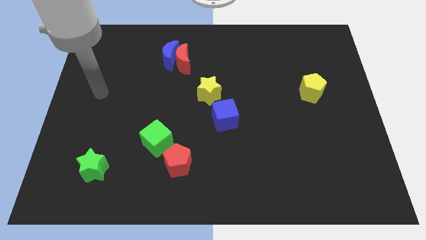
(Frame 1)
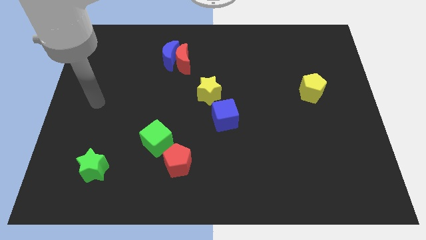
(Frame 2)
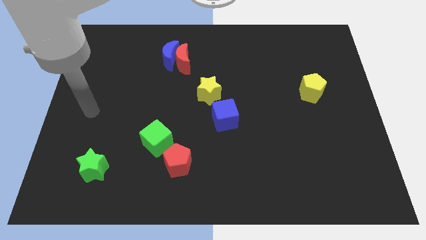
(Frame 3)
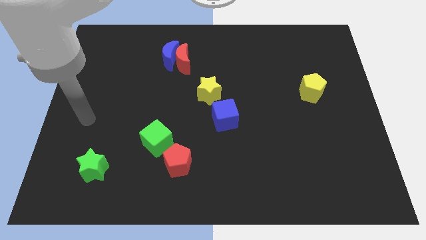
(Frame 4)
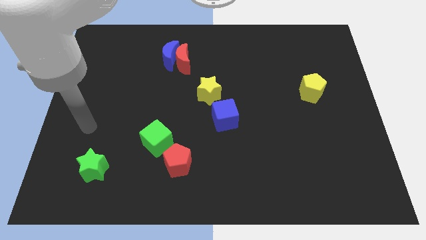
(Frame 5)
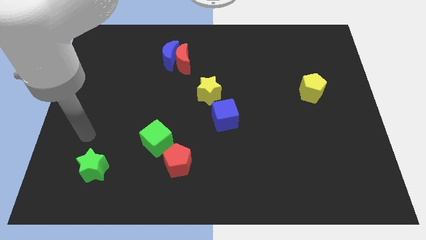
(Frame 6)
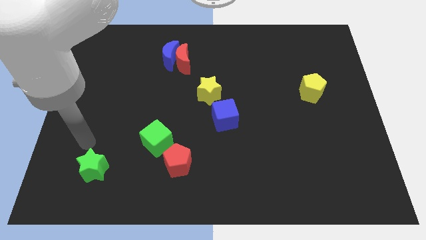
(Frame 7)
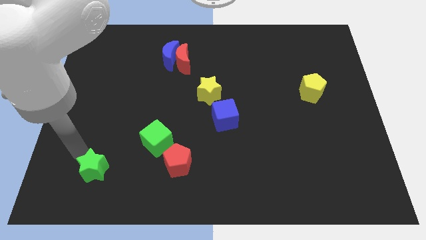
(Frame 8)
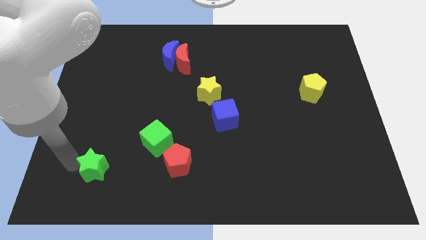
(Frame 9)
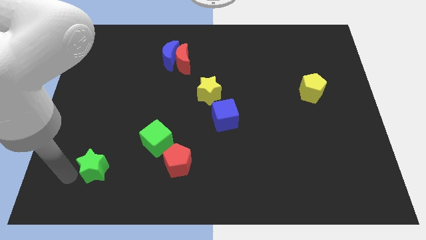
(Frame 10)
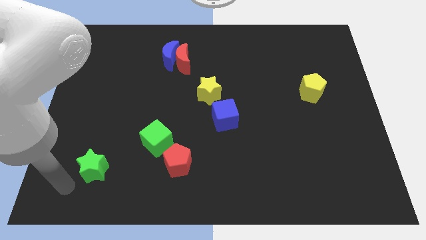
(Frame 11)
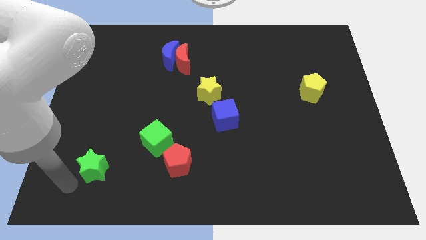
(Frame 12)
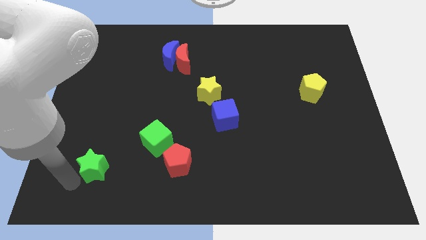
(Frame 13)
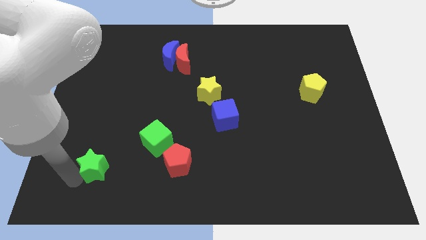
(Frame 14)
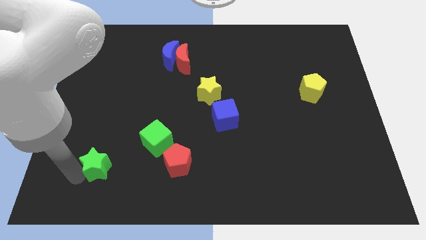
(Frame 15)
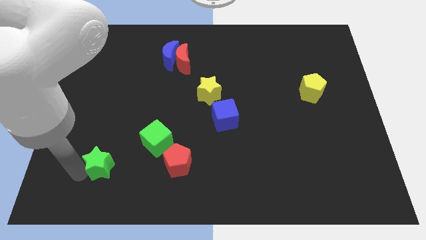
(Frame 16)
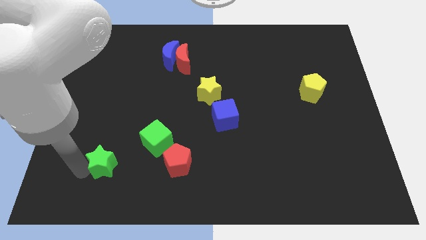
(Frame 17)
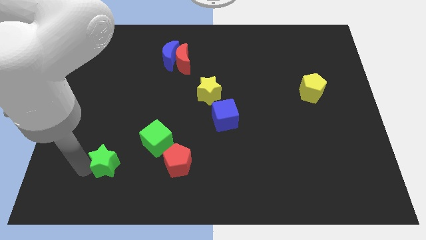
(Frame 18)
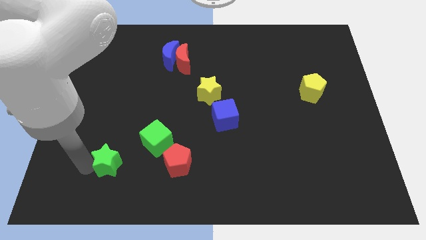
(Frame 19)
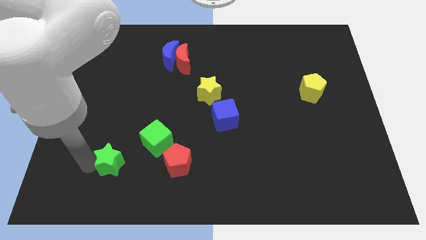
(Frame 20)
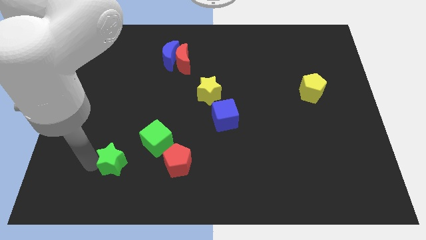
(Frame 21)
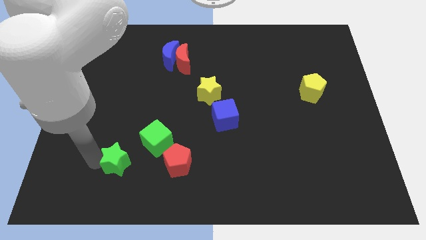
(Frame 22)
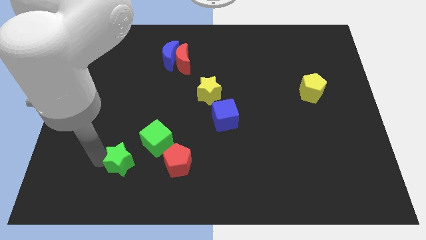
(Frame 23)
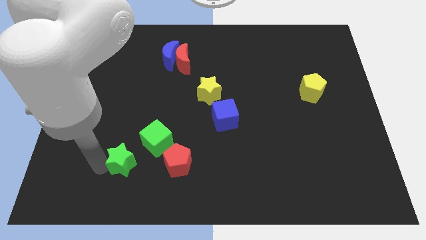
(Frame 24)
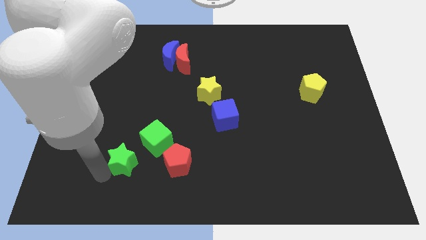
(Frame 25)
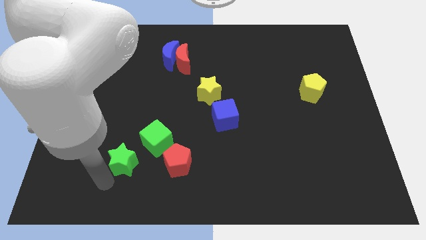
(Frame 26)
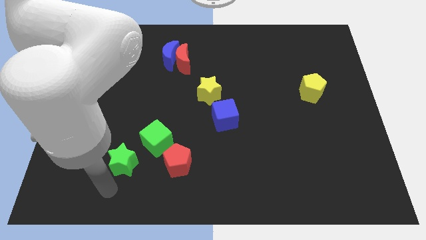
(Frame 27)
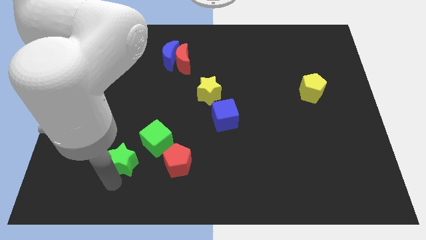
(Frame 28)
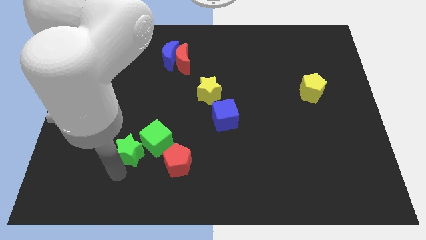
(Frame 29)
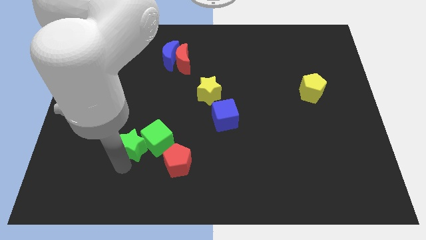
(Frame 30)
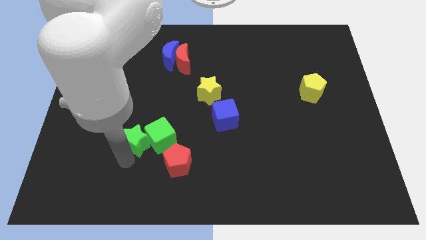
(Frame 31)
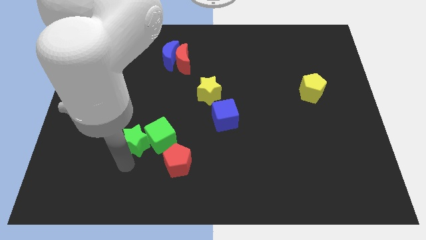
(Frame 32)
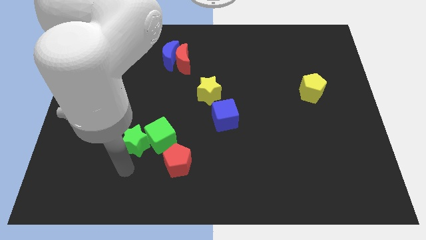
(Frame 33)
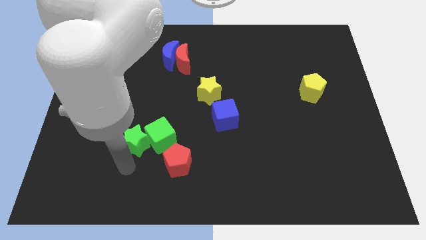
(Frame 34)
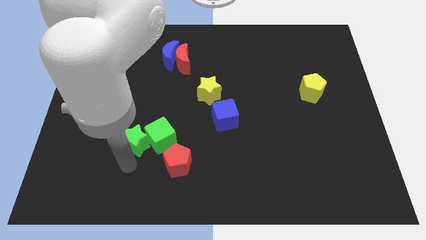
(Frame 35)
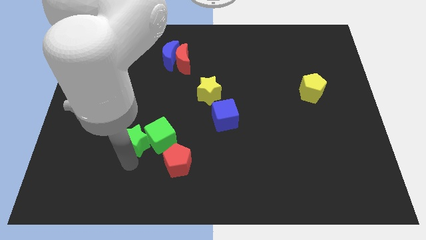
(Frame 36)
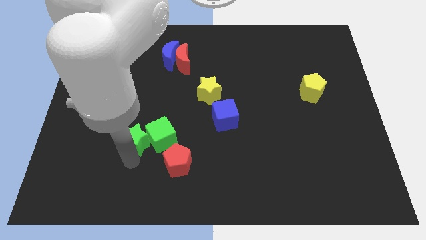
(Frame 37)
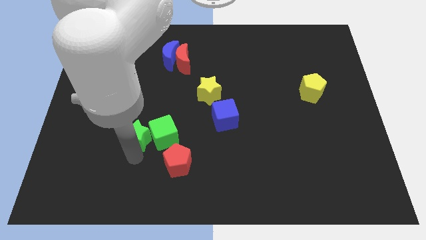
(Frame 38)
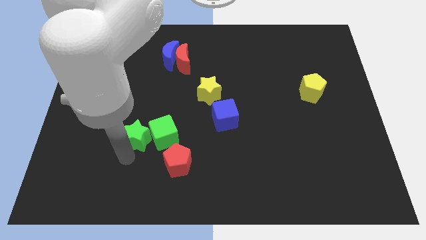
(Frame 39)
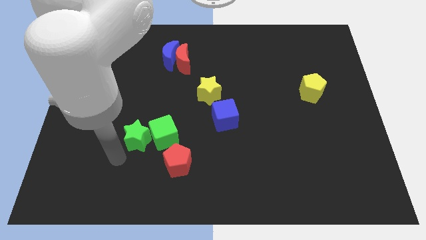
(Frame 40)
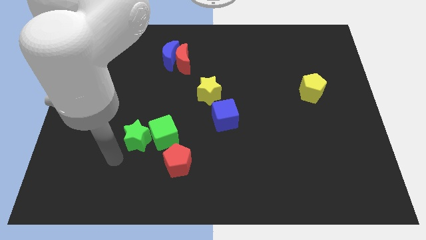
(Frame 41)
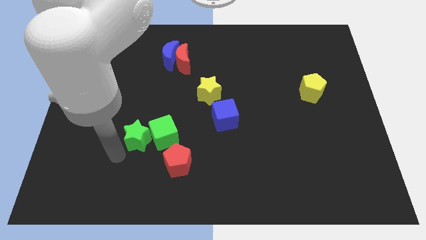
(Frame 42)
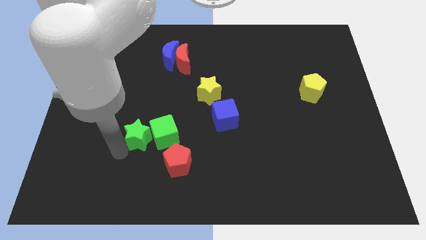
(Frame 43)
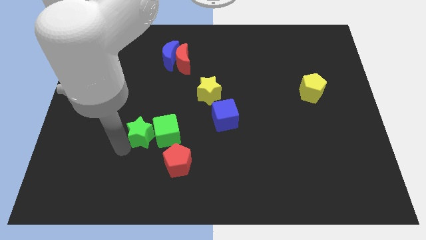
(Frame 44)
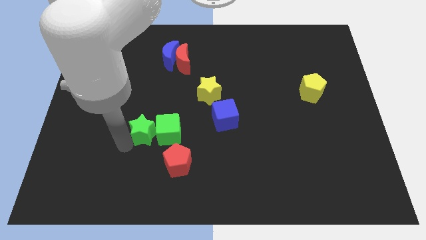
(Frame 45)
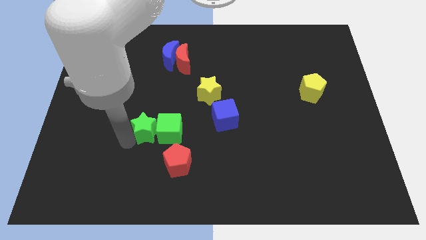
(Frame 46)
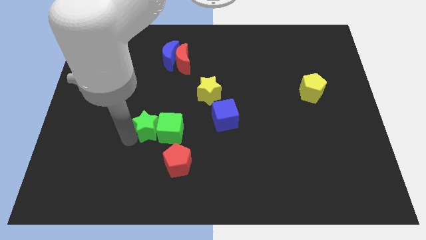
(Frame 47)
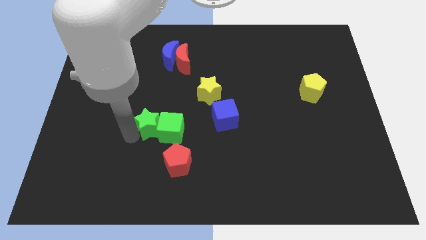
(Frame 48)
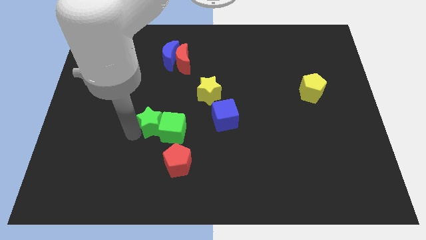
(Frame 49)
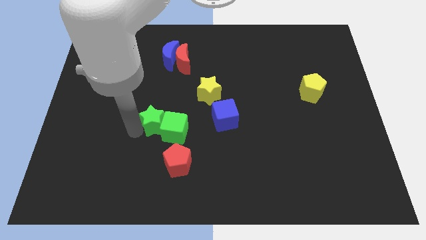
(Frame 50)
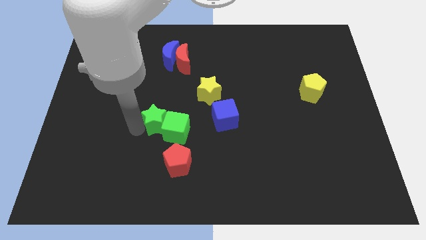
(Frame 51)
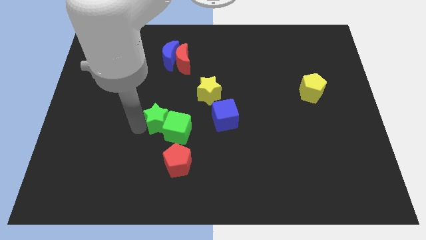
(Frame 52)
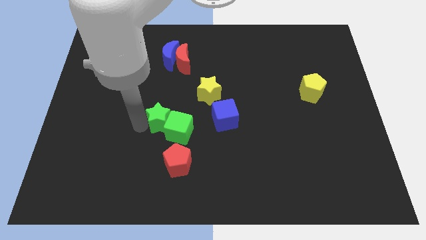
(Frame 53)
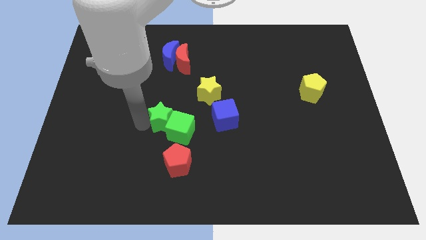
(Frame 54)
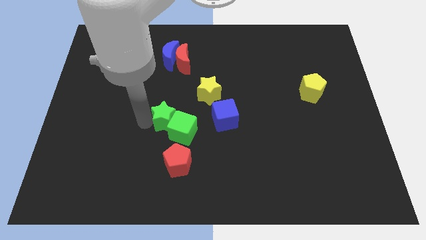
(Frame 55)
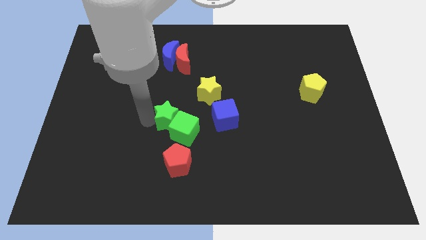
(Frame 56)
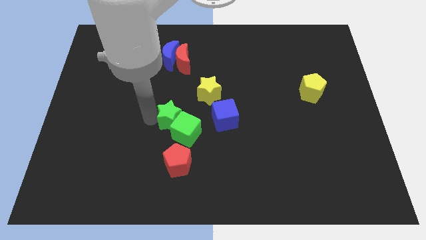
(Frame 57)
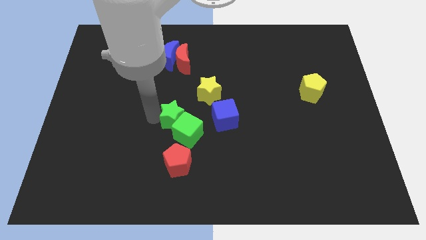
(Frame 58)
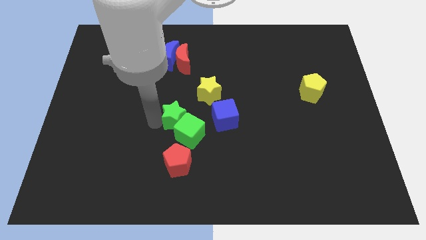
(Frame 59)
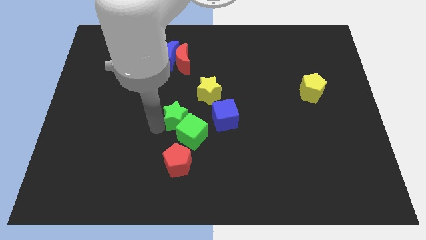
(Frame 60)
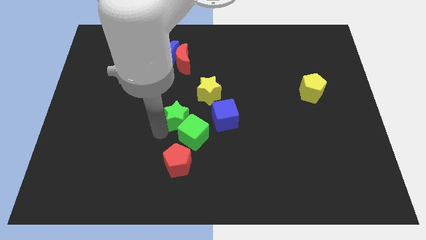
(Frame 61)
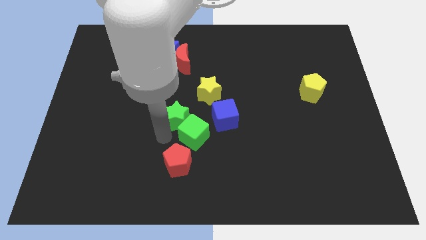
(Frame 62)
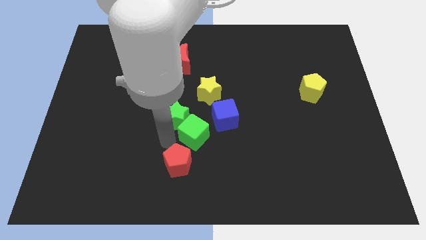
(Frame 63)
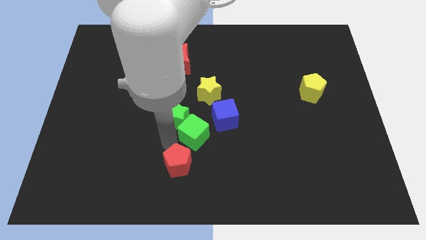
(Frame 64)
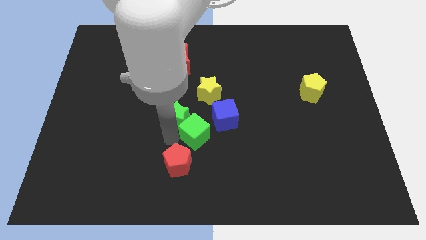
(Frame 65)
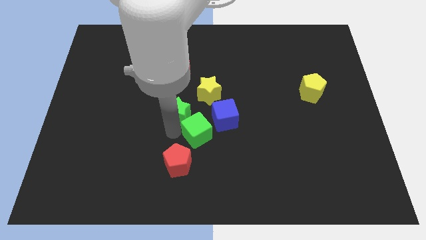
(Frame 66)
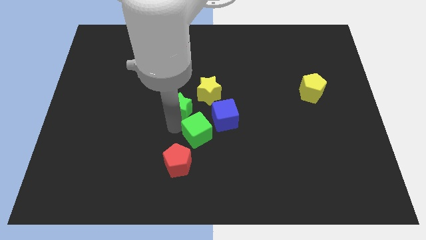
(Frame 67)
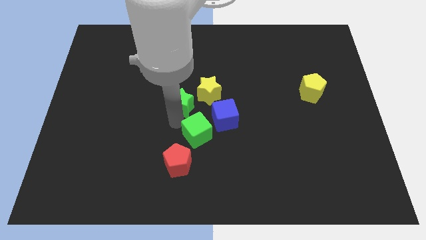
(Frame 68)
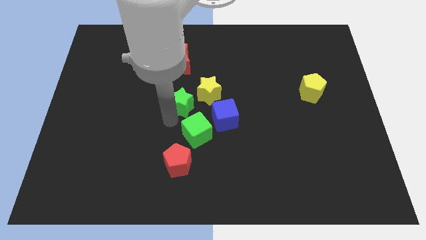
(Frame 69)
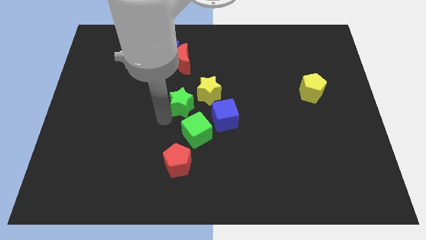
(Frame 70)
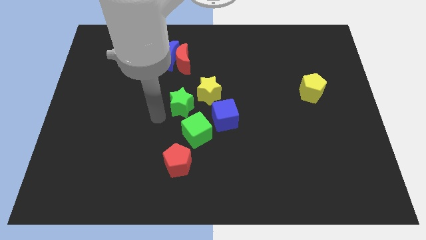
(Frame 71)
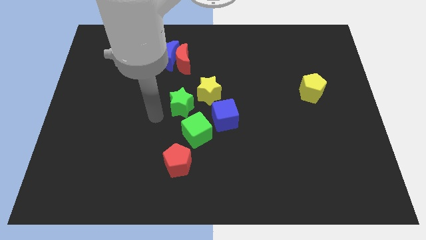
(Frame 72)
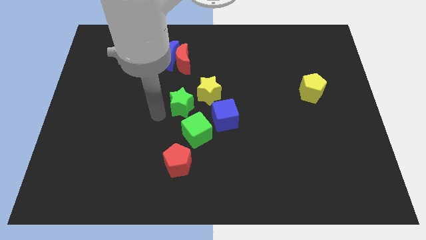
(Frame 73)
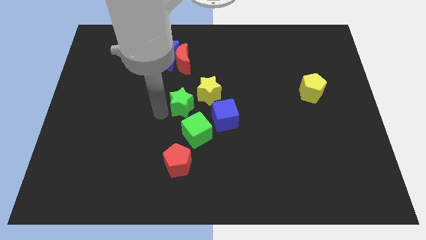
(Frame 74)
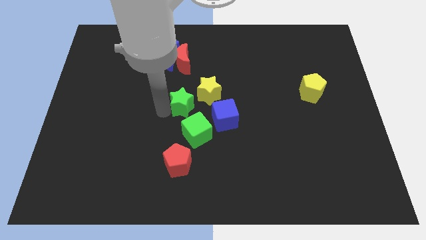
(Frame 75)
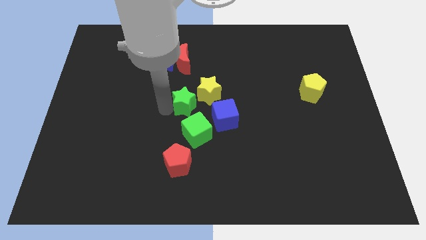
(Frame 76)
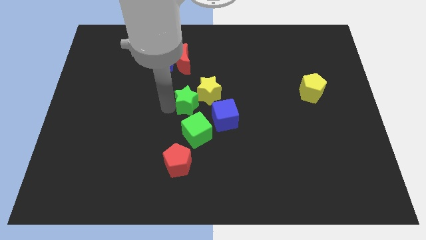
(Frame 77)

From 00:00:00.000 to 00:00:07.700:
slide the green star close to the yellow star
